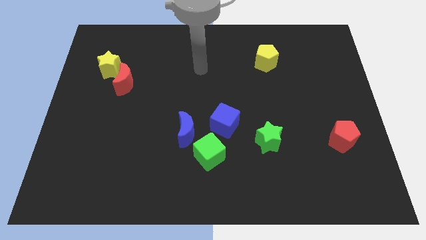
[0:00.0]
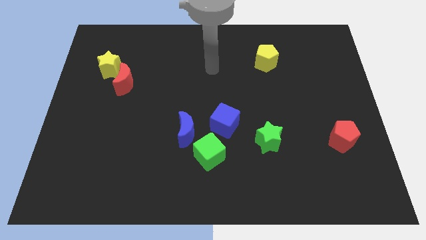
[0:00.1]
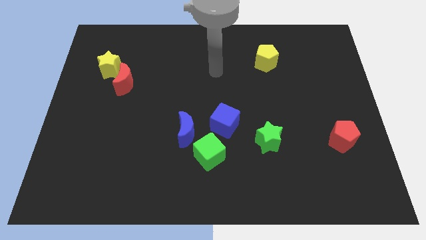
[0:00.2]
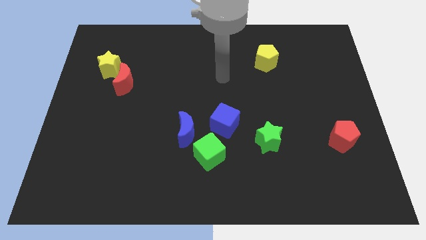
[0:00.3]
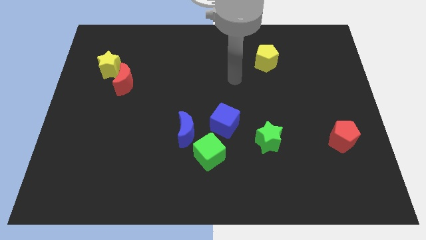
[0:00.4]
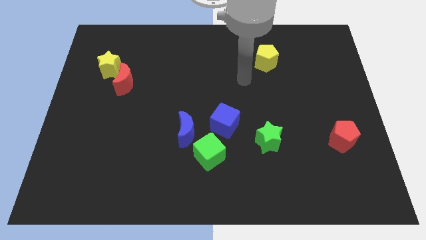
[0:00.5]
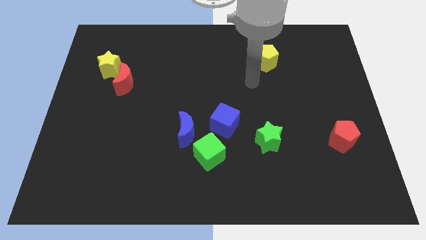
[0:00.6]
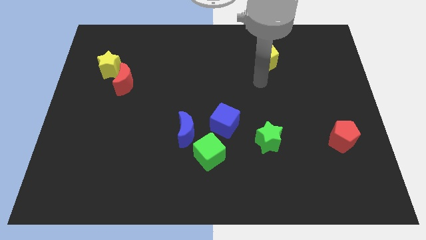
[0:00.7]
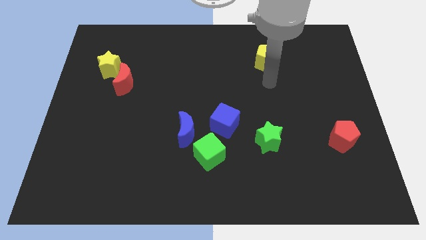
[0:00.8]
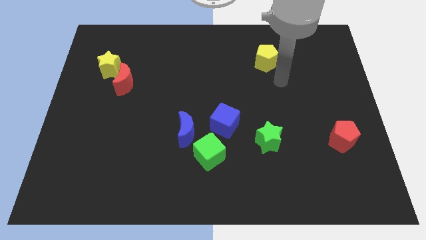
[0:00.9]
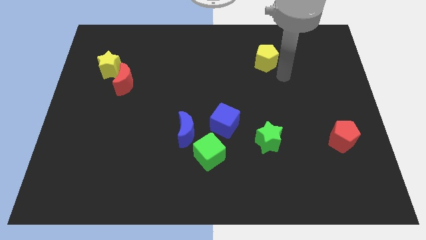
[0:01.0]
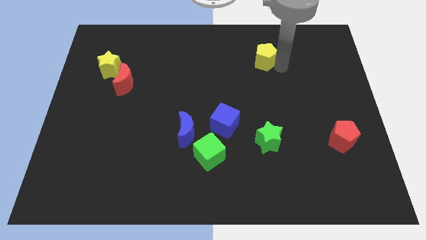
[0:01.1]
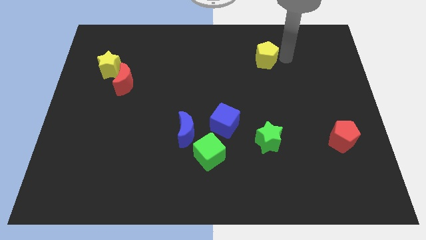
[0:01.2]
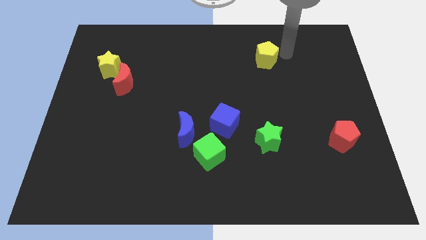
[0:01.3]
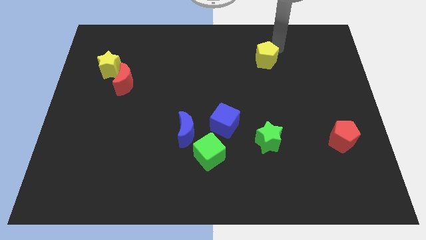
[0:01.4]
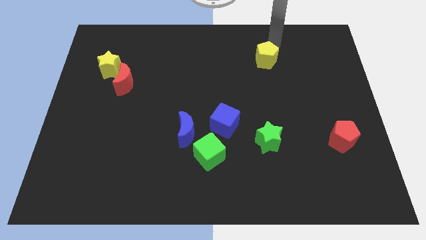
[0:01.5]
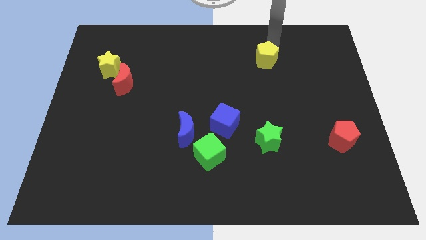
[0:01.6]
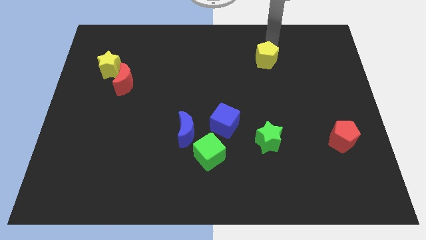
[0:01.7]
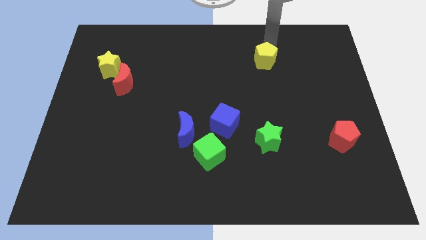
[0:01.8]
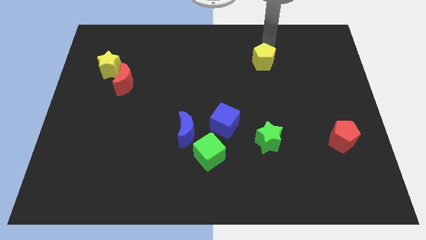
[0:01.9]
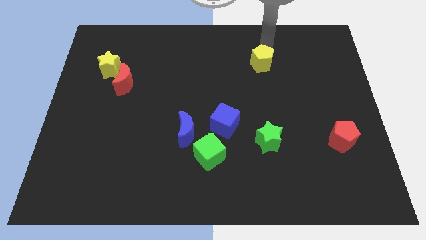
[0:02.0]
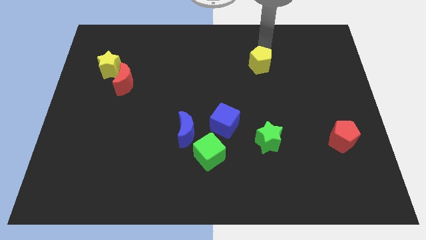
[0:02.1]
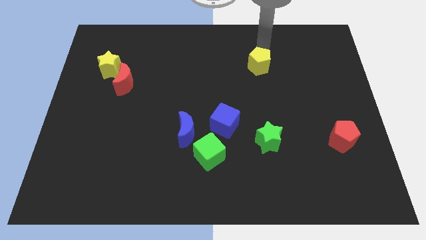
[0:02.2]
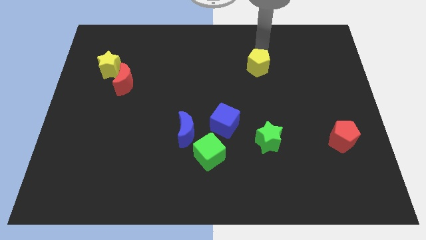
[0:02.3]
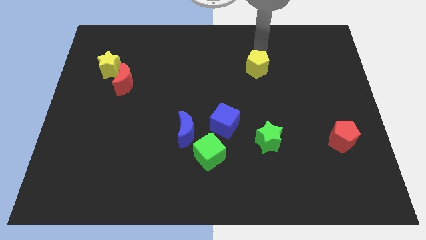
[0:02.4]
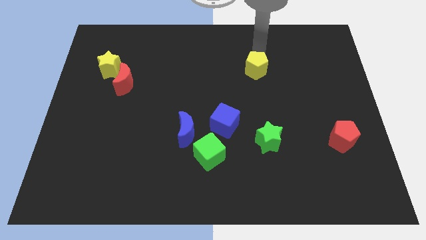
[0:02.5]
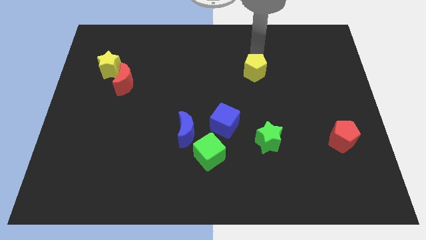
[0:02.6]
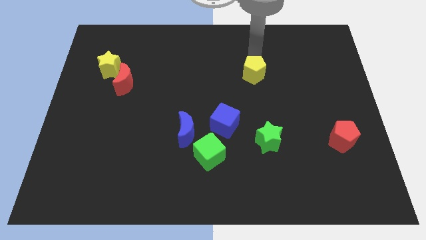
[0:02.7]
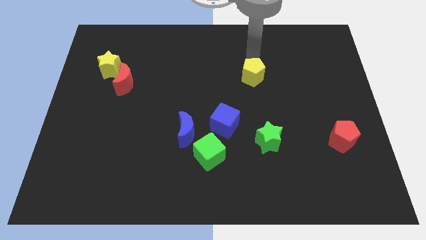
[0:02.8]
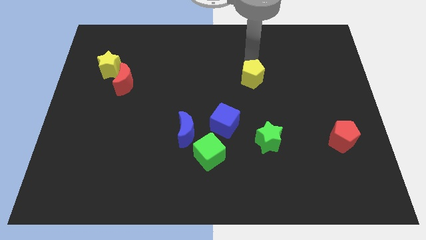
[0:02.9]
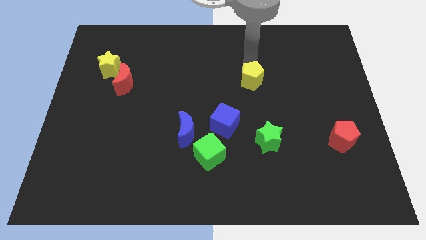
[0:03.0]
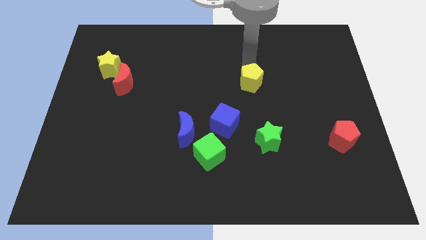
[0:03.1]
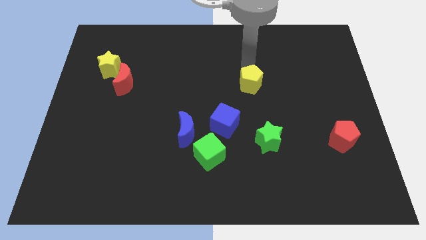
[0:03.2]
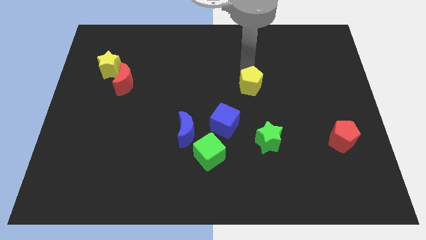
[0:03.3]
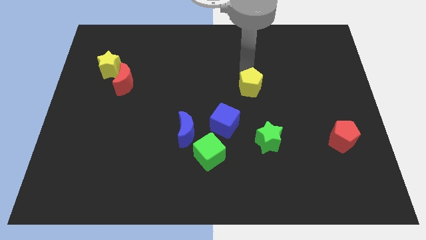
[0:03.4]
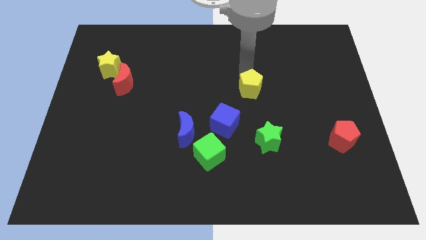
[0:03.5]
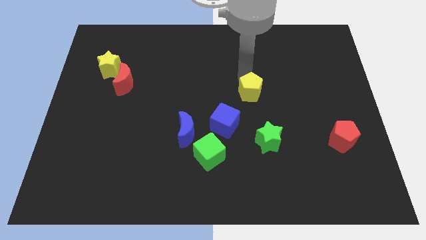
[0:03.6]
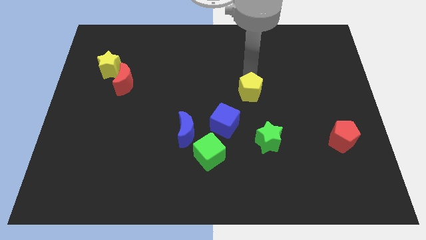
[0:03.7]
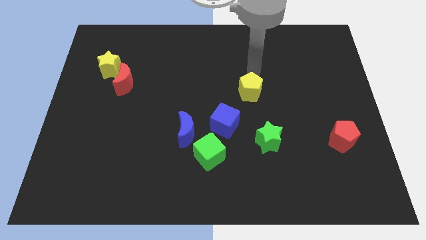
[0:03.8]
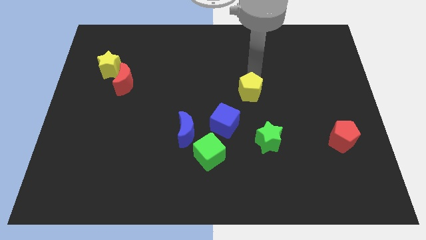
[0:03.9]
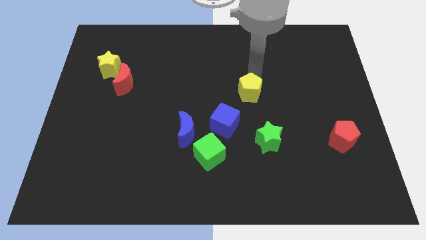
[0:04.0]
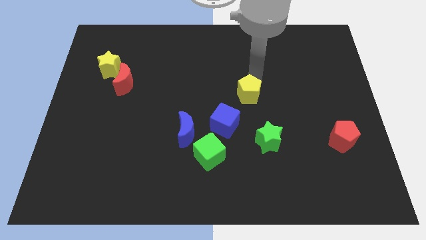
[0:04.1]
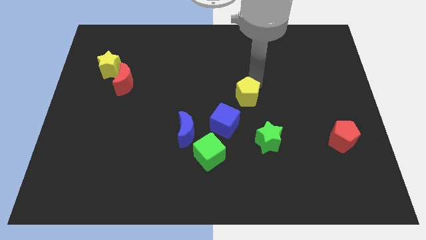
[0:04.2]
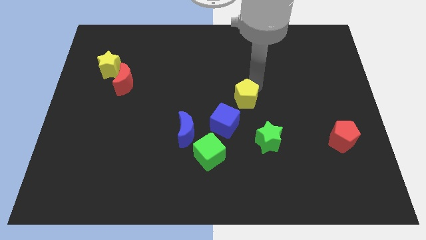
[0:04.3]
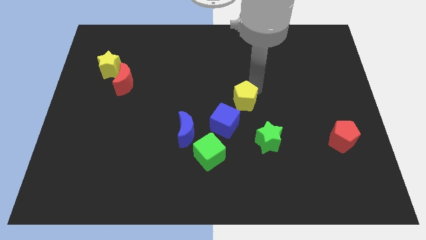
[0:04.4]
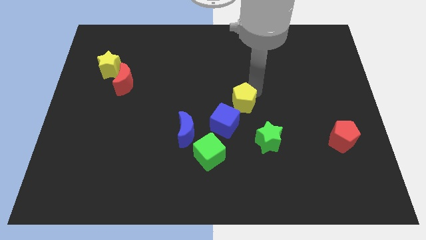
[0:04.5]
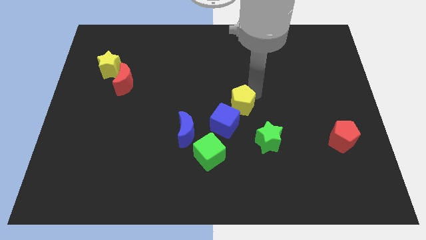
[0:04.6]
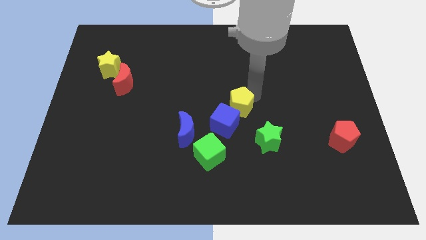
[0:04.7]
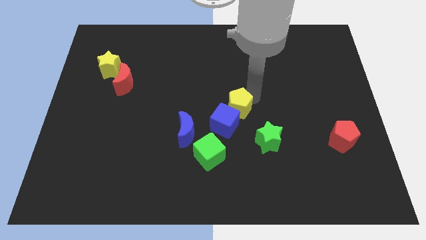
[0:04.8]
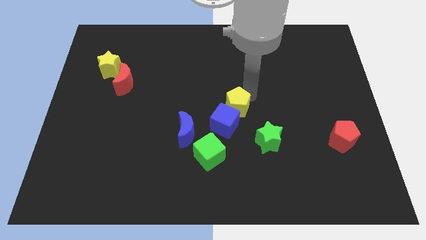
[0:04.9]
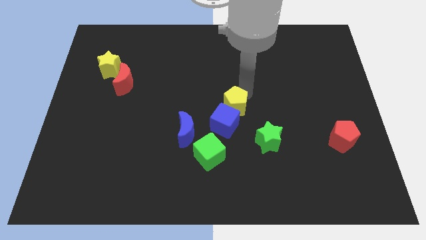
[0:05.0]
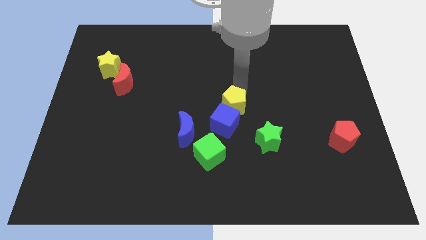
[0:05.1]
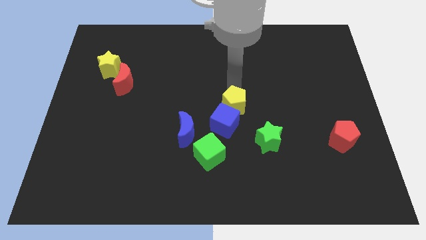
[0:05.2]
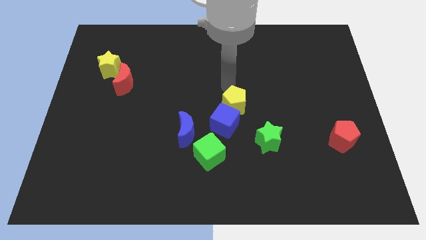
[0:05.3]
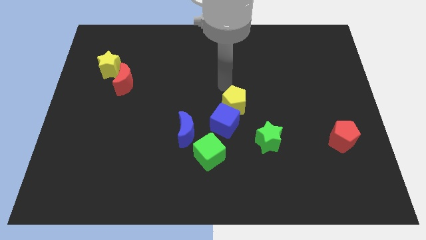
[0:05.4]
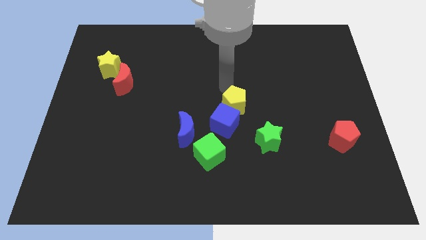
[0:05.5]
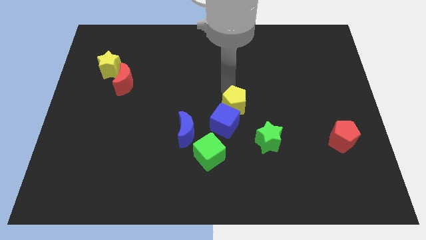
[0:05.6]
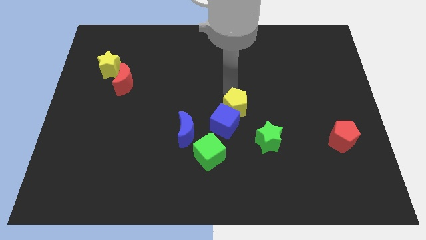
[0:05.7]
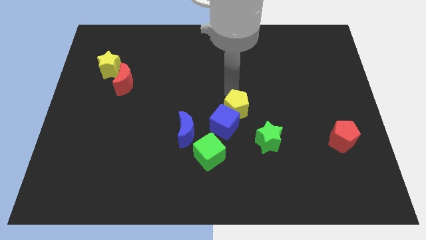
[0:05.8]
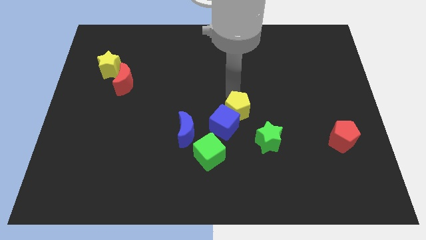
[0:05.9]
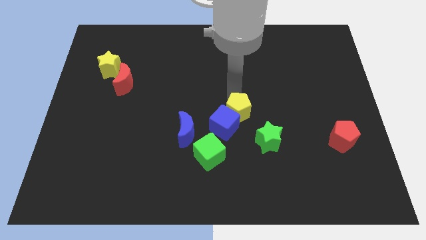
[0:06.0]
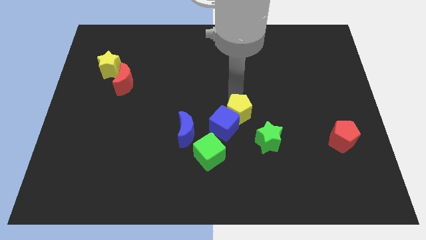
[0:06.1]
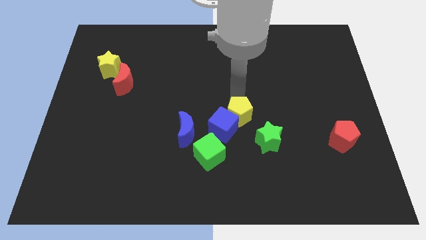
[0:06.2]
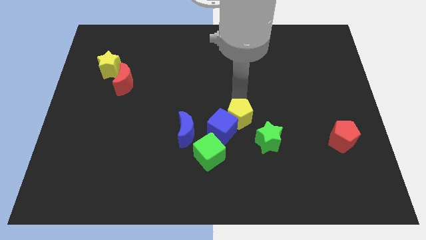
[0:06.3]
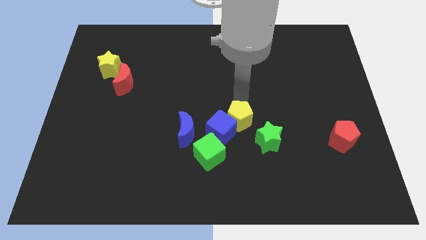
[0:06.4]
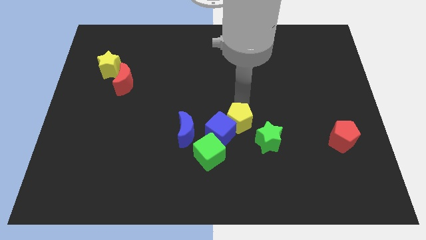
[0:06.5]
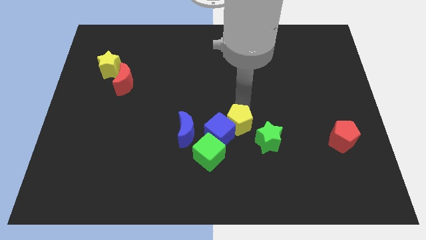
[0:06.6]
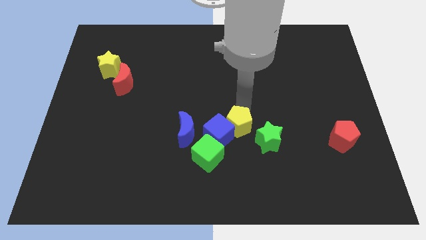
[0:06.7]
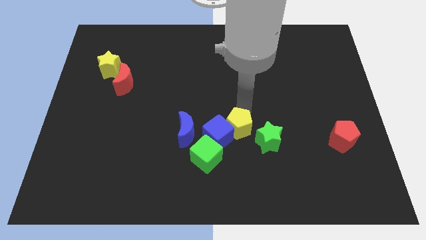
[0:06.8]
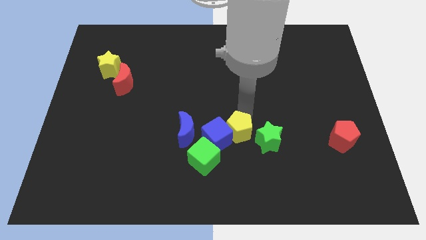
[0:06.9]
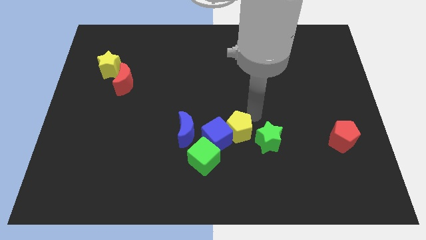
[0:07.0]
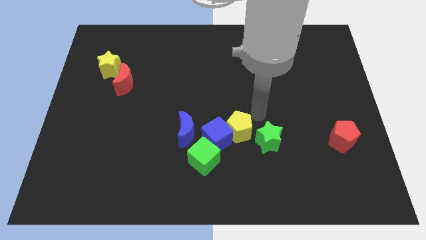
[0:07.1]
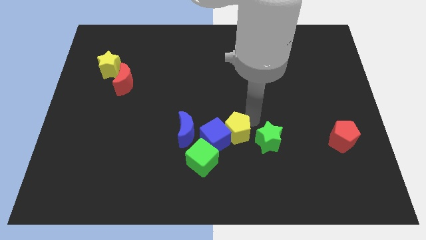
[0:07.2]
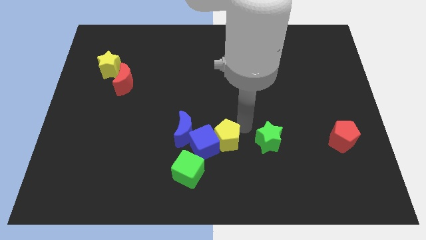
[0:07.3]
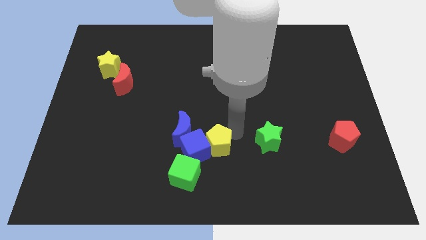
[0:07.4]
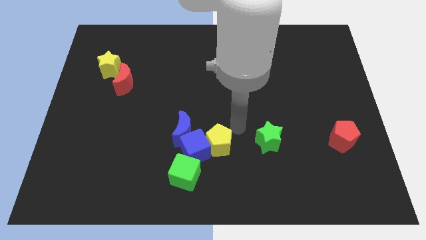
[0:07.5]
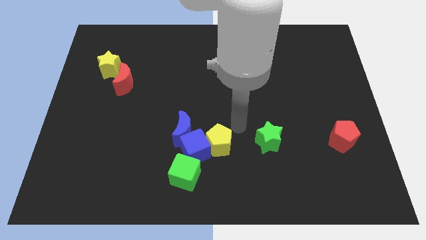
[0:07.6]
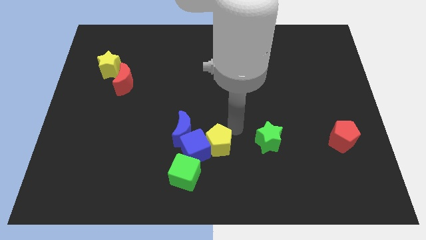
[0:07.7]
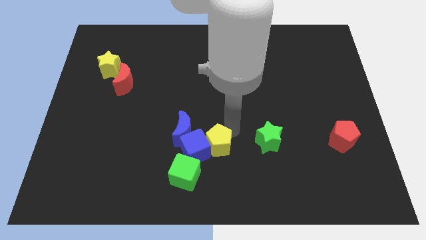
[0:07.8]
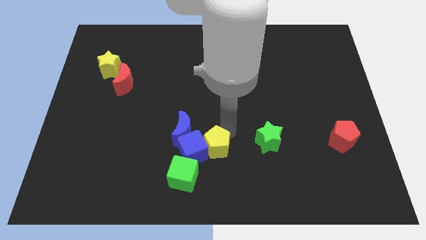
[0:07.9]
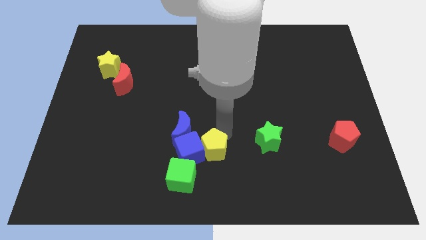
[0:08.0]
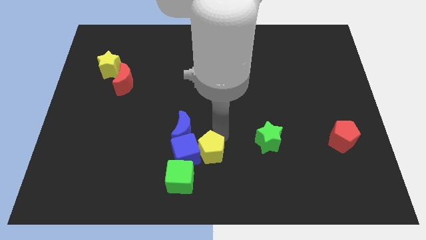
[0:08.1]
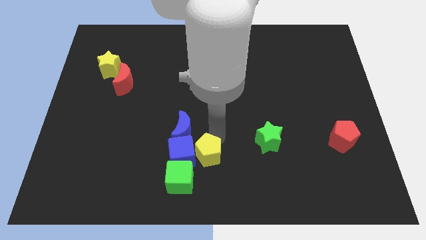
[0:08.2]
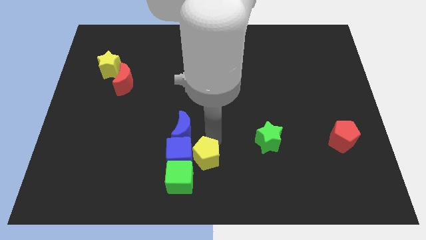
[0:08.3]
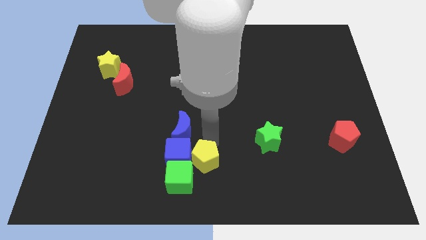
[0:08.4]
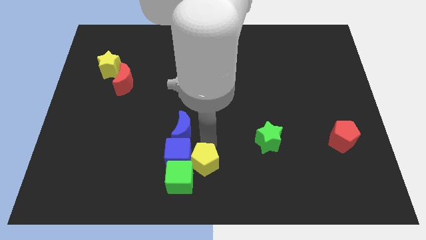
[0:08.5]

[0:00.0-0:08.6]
slide the yellow pentagon next to the green cube
